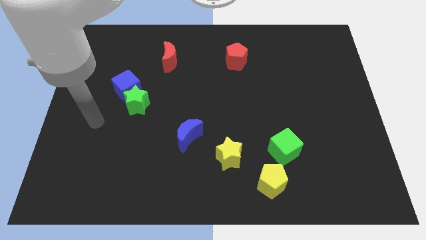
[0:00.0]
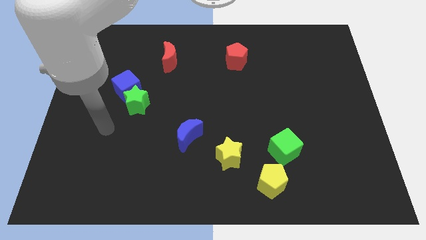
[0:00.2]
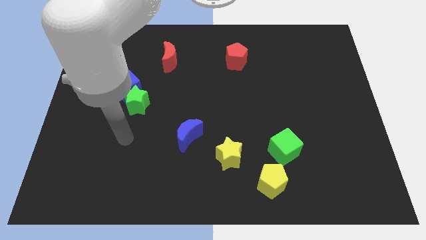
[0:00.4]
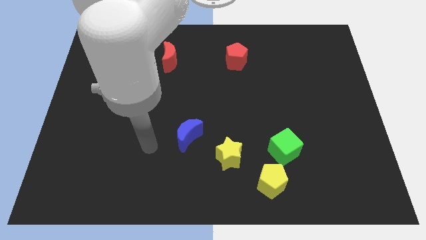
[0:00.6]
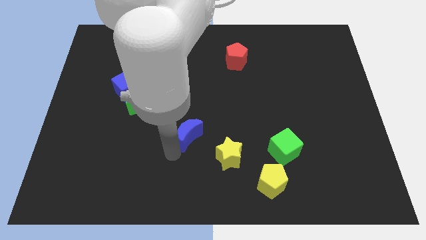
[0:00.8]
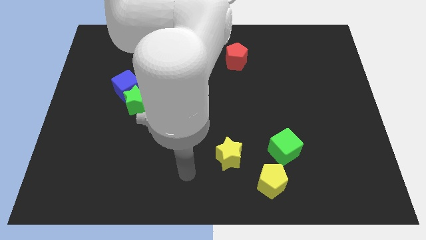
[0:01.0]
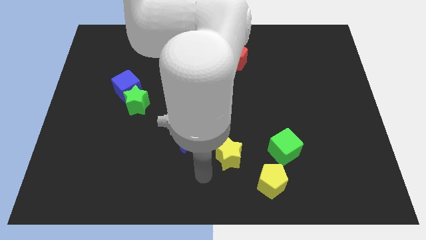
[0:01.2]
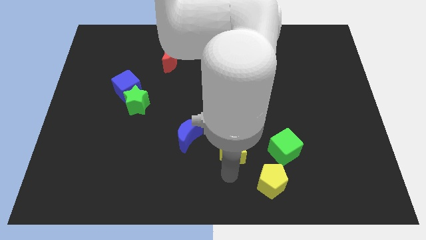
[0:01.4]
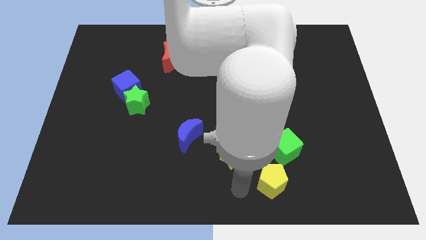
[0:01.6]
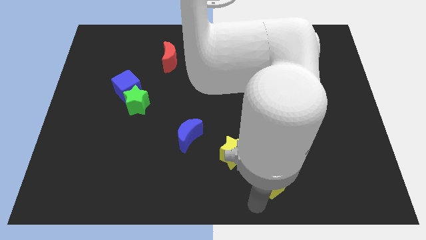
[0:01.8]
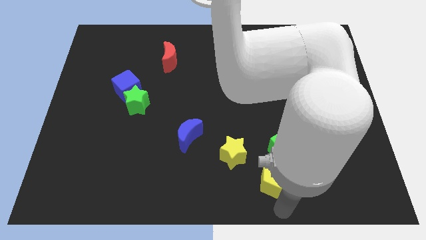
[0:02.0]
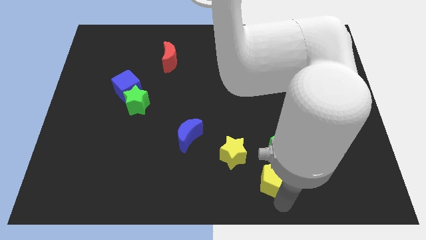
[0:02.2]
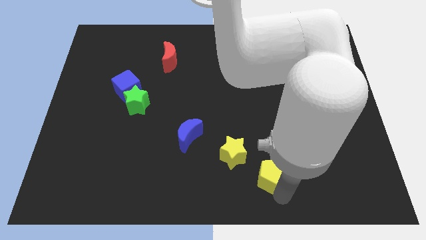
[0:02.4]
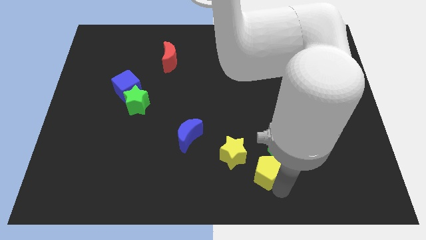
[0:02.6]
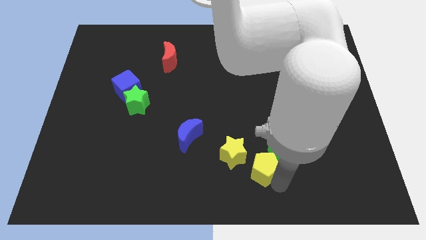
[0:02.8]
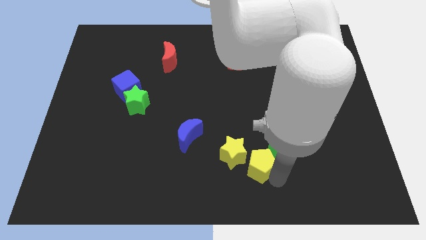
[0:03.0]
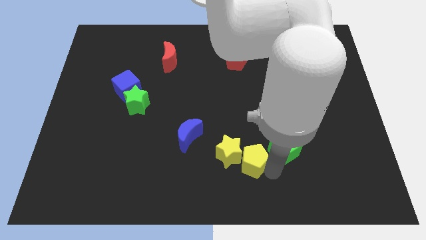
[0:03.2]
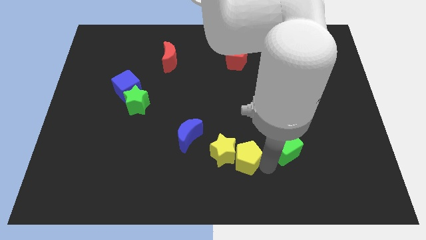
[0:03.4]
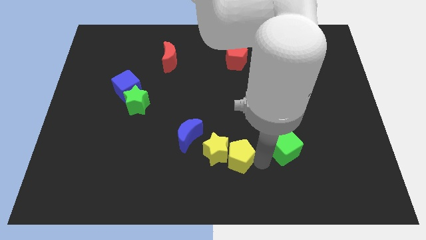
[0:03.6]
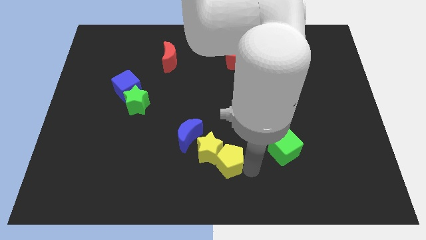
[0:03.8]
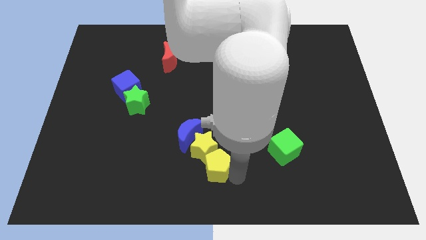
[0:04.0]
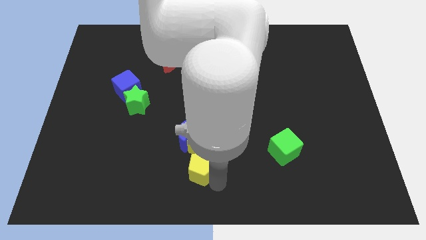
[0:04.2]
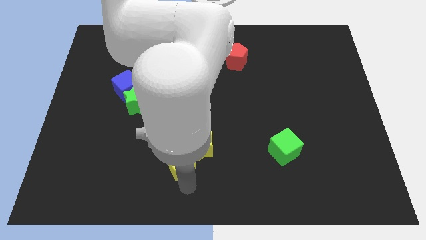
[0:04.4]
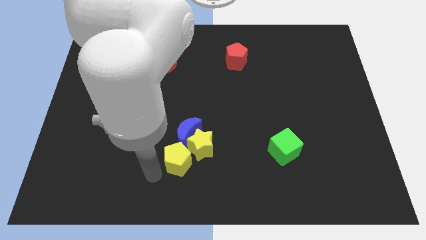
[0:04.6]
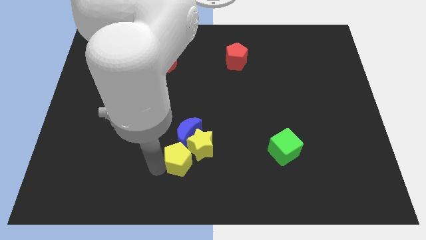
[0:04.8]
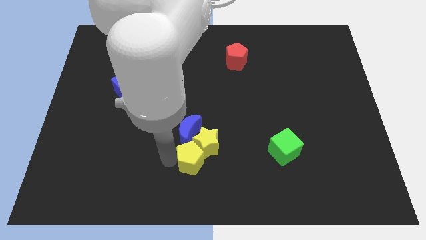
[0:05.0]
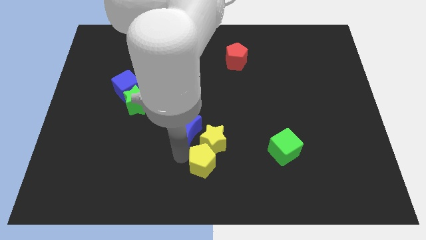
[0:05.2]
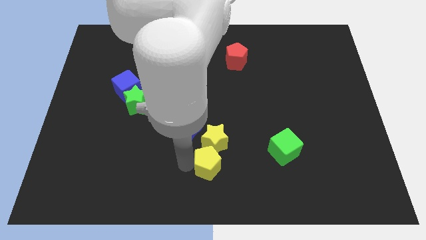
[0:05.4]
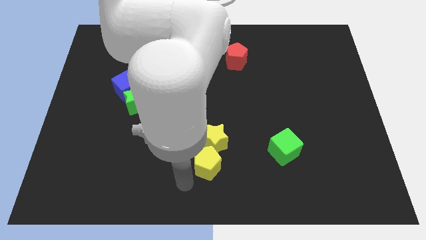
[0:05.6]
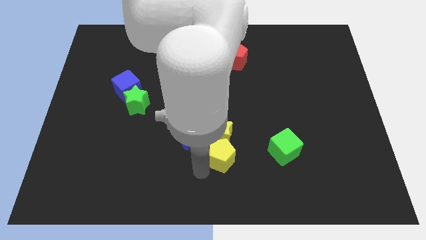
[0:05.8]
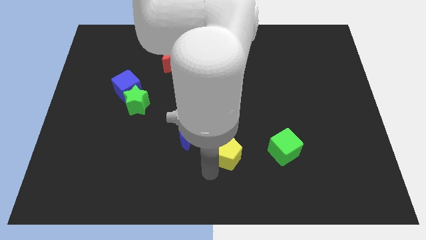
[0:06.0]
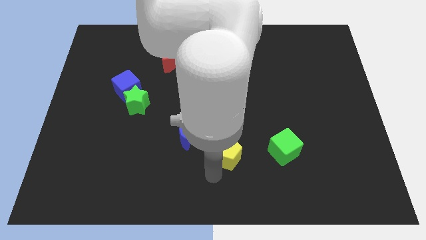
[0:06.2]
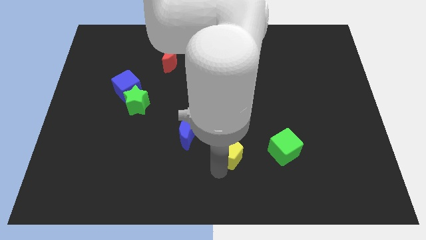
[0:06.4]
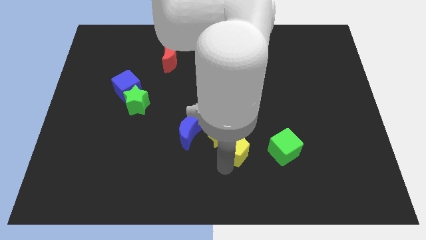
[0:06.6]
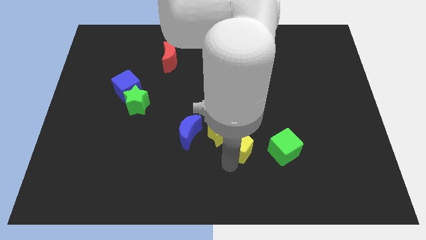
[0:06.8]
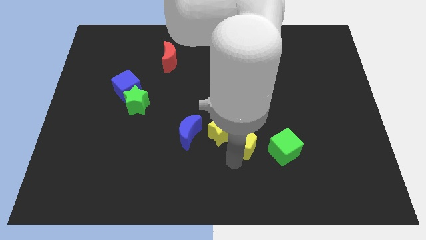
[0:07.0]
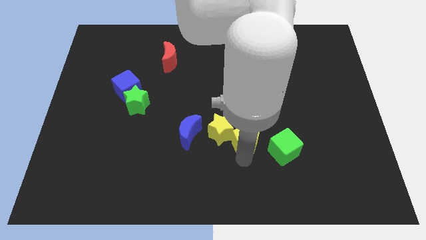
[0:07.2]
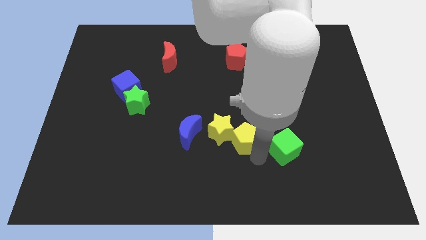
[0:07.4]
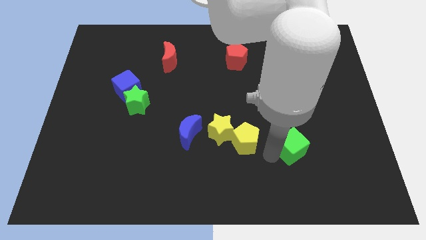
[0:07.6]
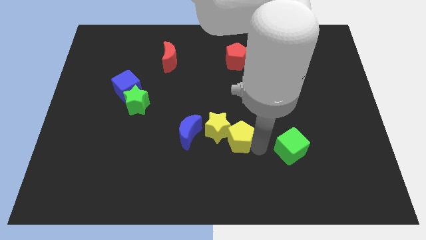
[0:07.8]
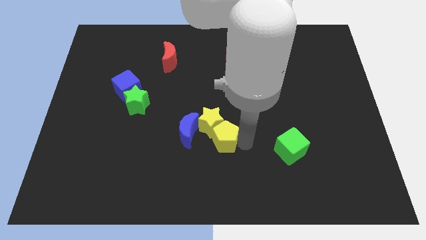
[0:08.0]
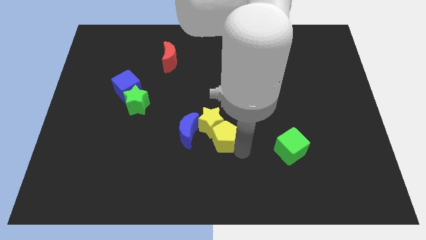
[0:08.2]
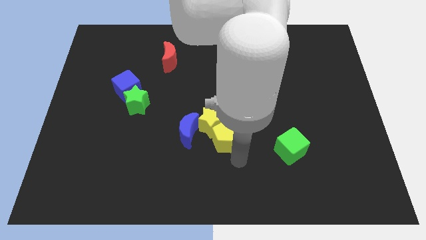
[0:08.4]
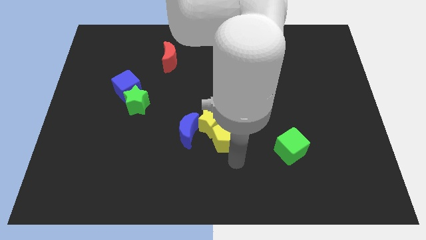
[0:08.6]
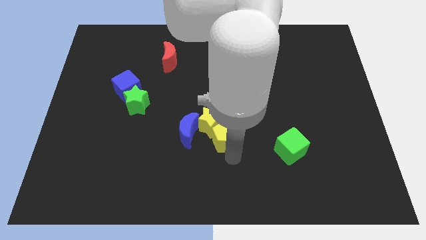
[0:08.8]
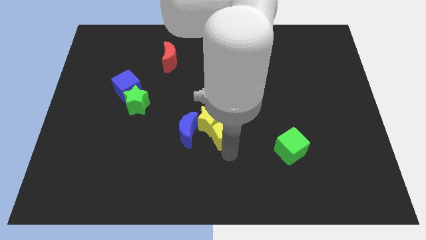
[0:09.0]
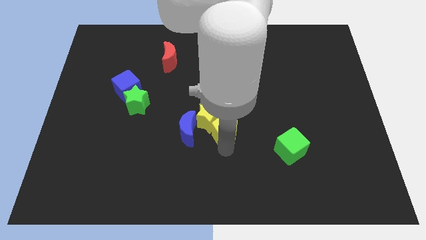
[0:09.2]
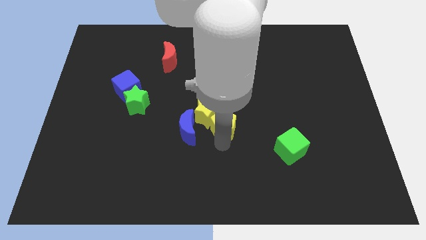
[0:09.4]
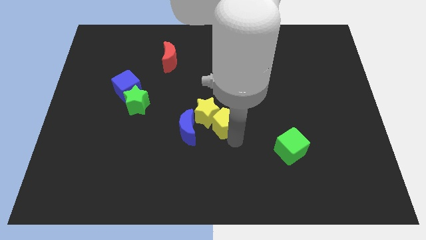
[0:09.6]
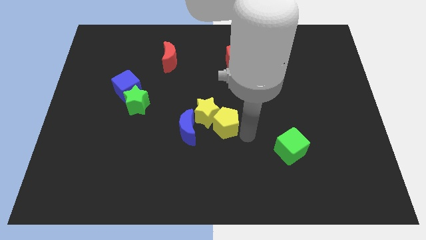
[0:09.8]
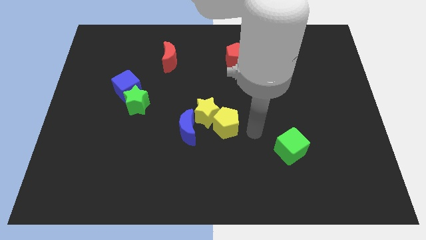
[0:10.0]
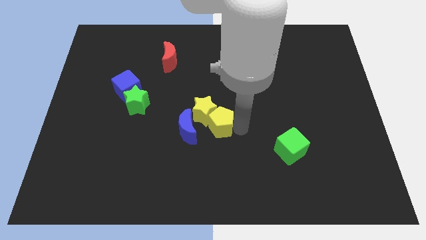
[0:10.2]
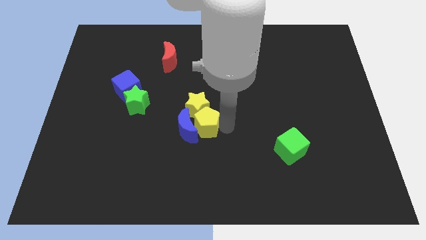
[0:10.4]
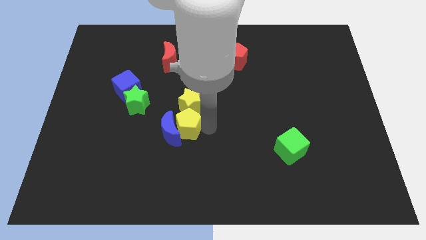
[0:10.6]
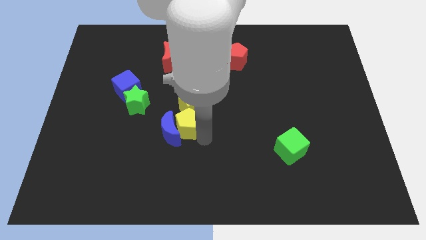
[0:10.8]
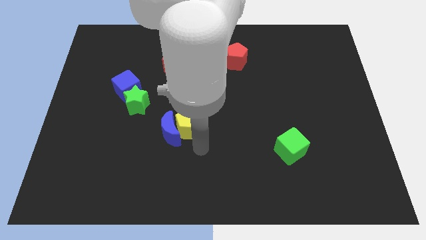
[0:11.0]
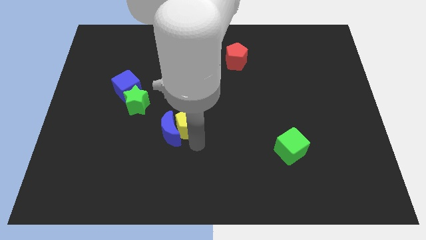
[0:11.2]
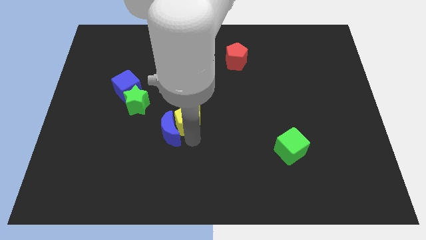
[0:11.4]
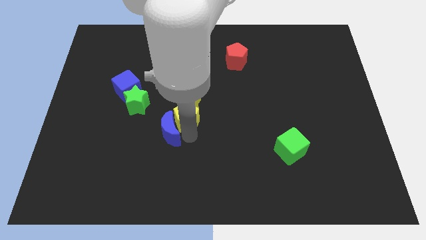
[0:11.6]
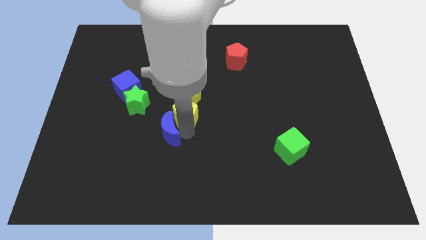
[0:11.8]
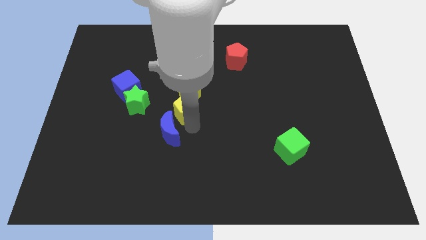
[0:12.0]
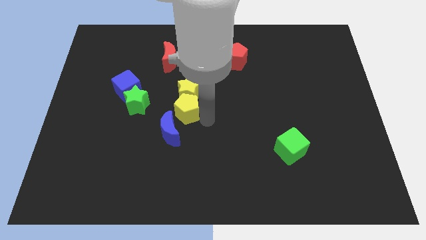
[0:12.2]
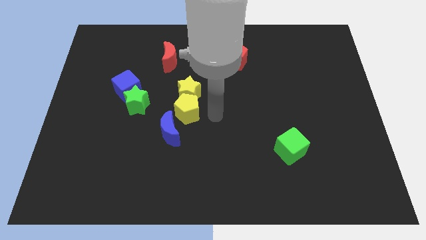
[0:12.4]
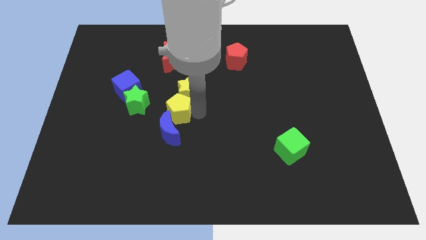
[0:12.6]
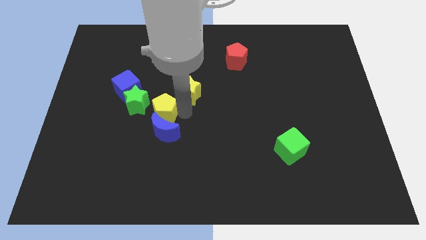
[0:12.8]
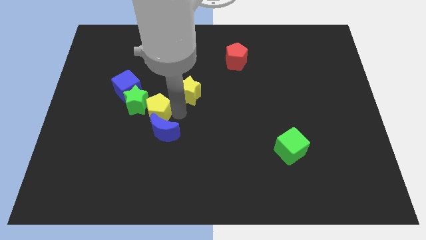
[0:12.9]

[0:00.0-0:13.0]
push the yellow pentagon next to the green star

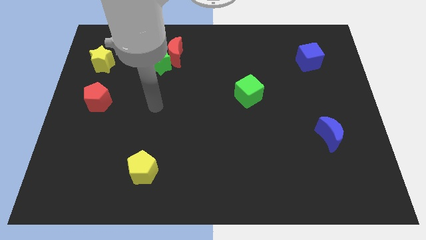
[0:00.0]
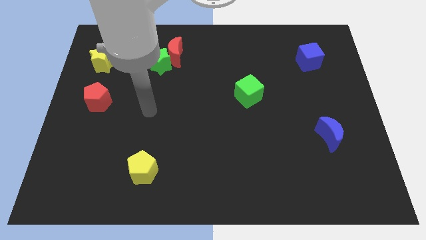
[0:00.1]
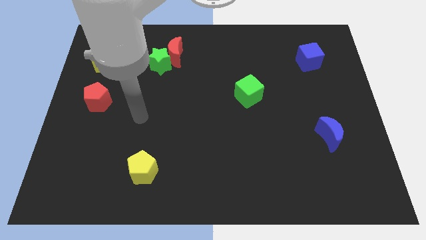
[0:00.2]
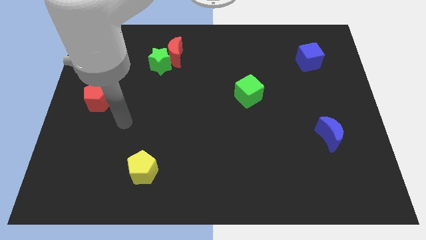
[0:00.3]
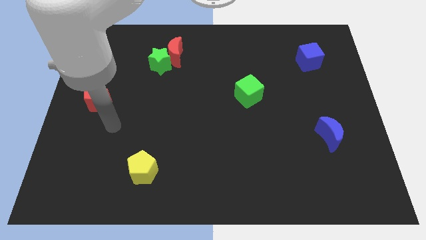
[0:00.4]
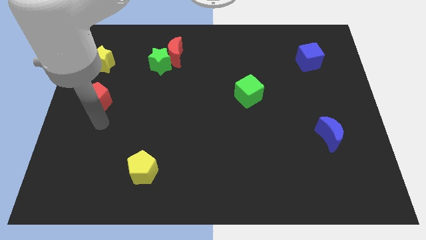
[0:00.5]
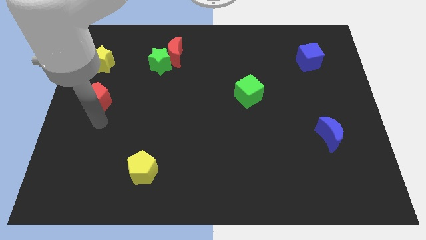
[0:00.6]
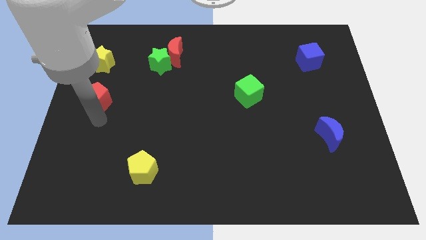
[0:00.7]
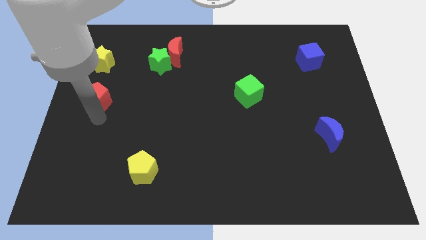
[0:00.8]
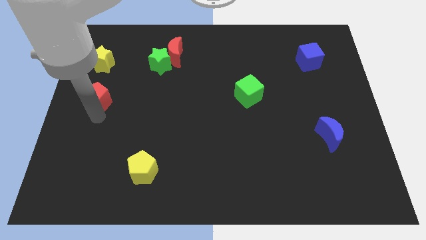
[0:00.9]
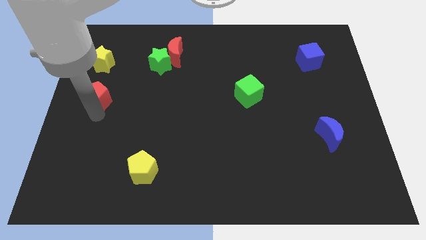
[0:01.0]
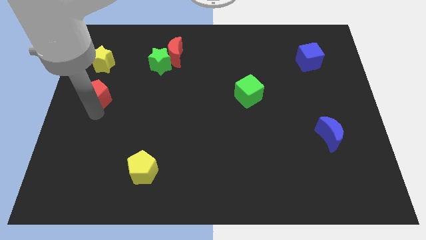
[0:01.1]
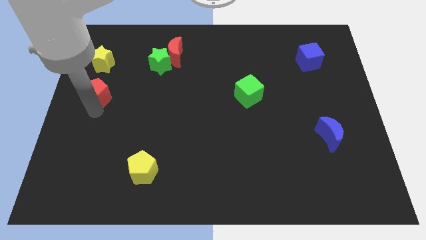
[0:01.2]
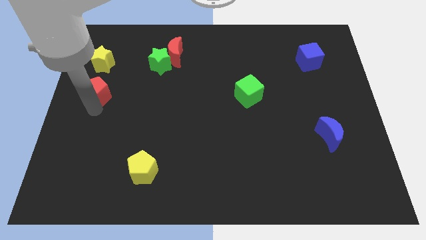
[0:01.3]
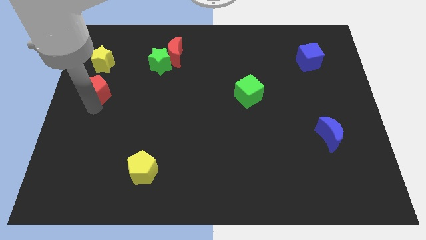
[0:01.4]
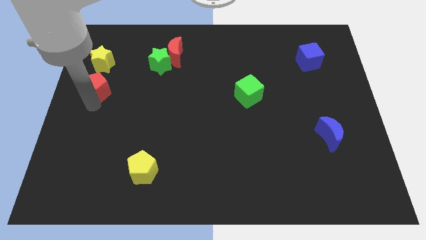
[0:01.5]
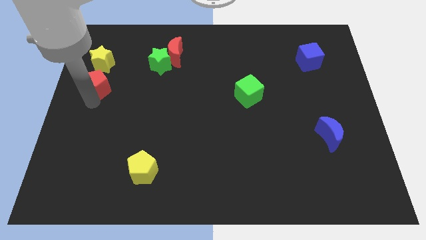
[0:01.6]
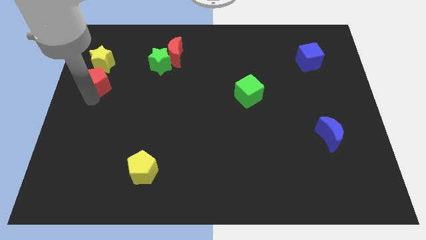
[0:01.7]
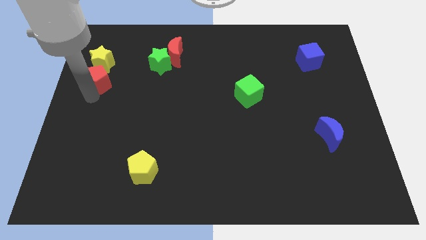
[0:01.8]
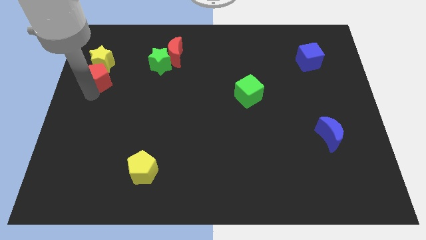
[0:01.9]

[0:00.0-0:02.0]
push the red pentagon next to the yellow star
